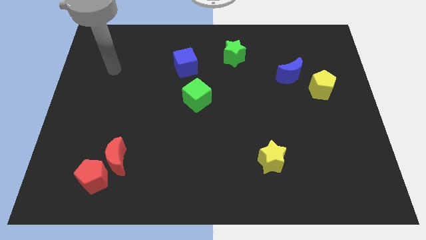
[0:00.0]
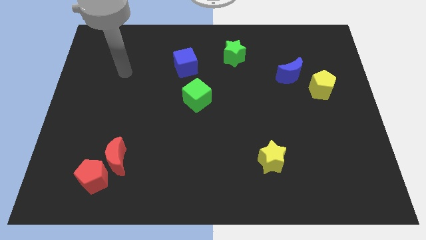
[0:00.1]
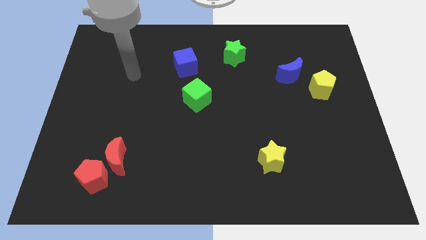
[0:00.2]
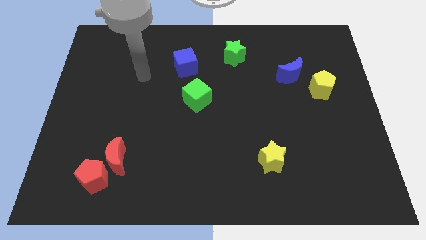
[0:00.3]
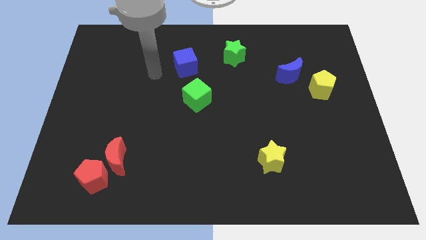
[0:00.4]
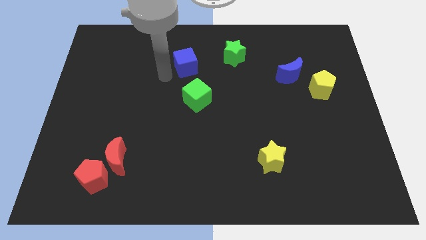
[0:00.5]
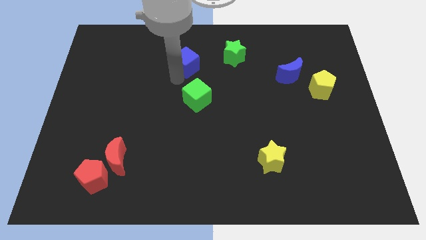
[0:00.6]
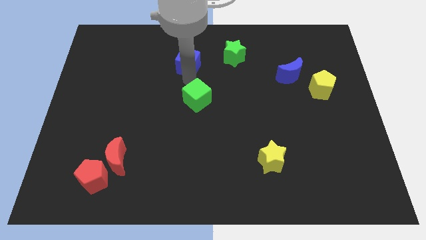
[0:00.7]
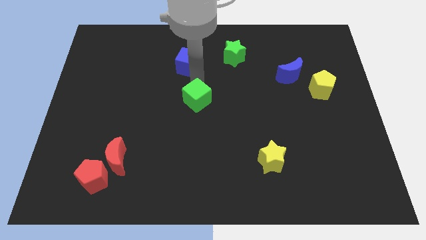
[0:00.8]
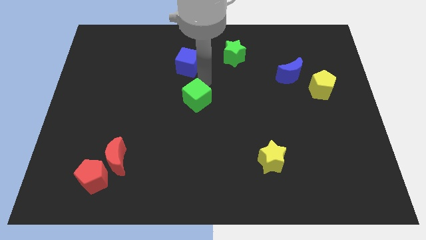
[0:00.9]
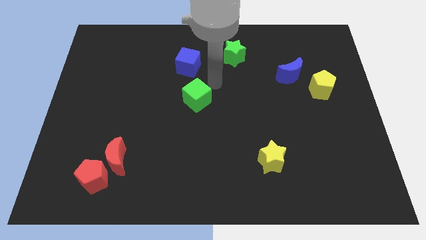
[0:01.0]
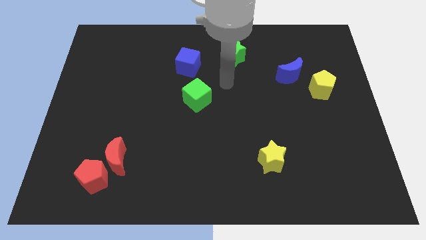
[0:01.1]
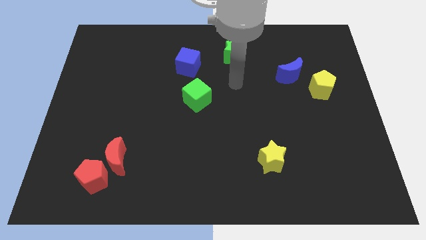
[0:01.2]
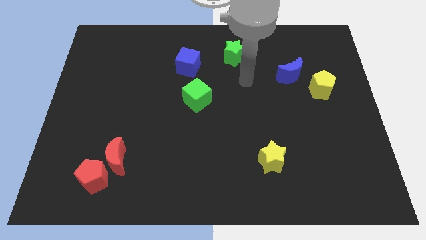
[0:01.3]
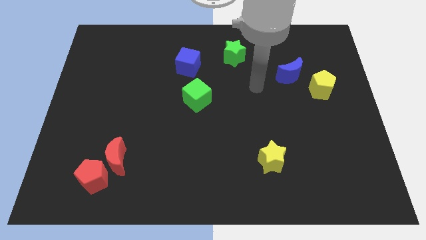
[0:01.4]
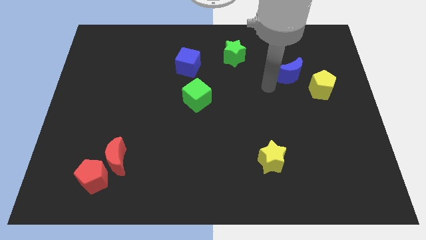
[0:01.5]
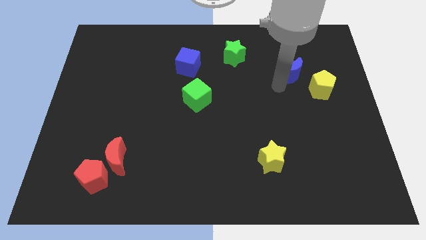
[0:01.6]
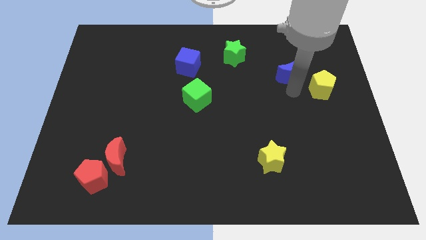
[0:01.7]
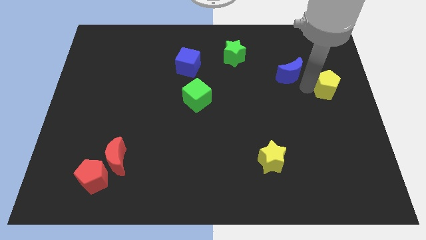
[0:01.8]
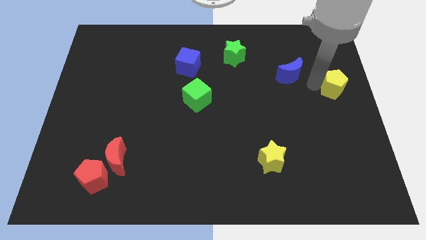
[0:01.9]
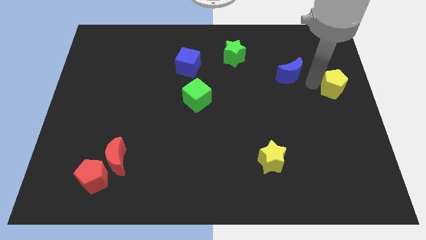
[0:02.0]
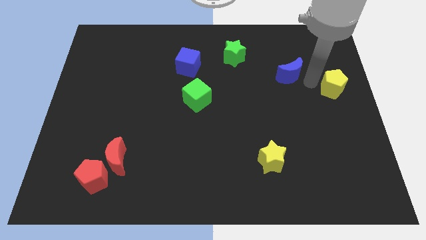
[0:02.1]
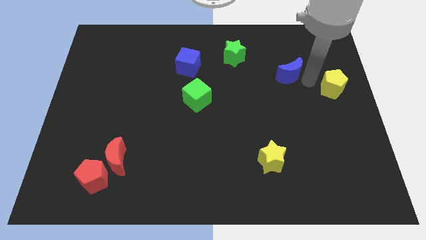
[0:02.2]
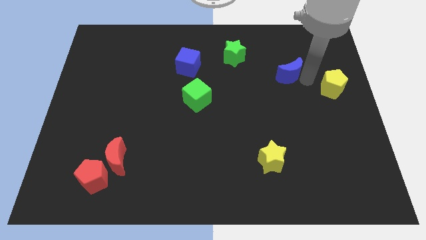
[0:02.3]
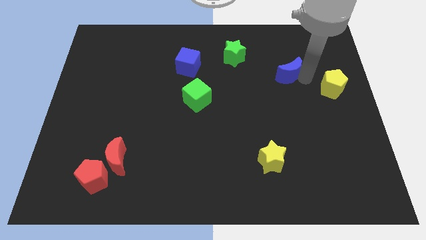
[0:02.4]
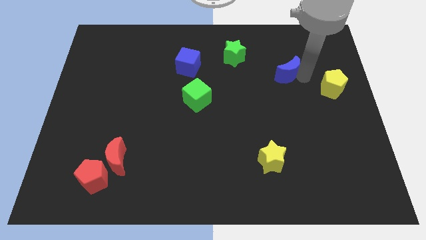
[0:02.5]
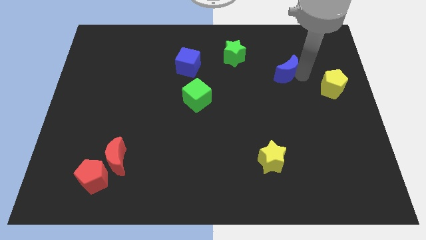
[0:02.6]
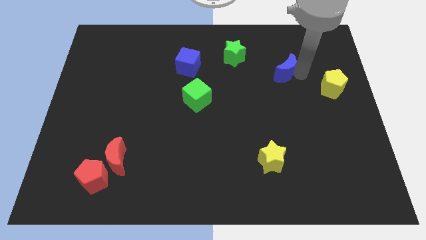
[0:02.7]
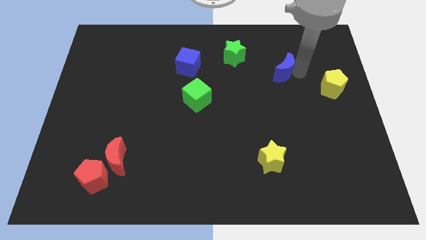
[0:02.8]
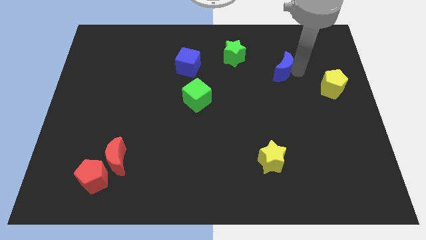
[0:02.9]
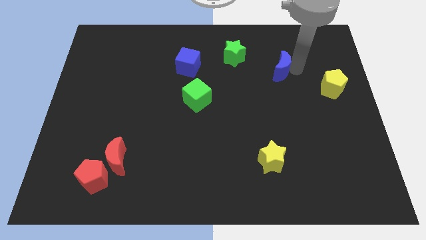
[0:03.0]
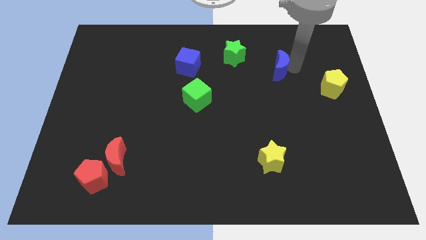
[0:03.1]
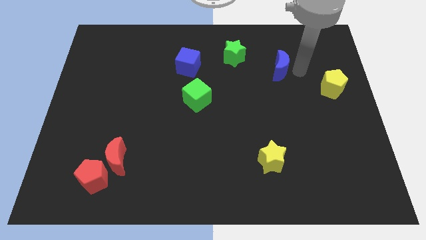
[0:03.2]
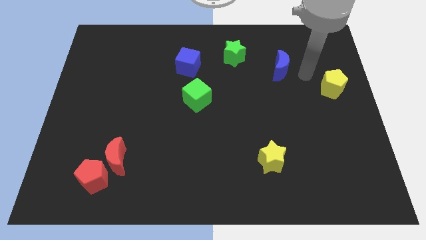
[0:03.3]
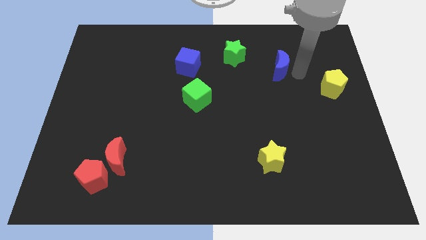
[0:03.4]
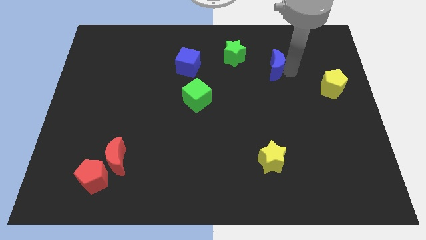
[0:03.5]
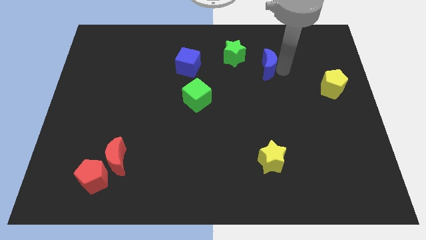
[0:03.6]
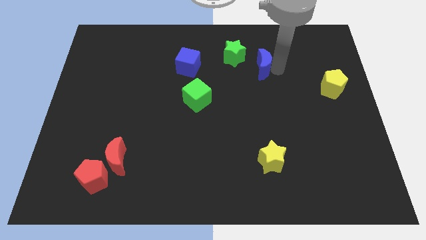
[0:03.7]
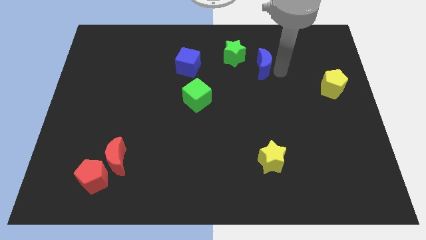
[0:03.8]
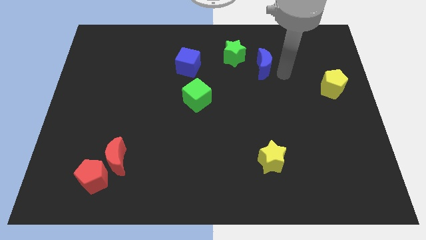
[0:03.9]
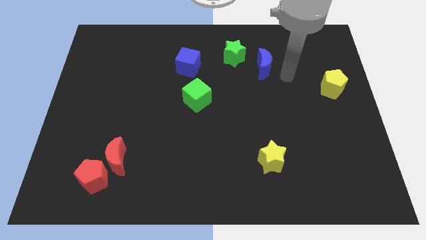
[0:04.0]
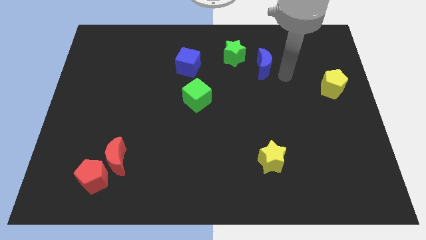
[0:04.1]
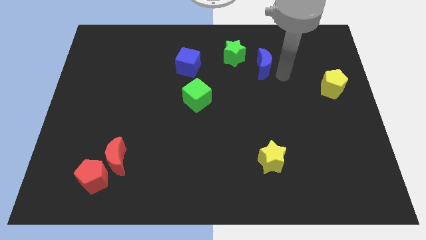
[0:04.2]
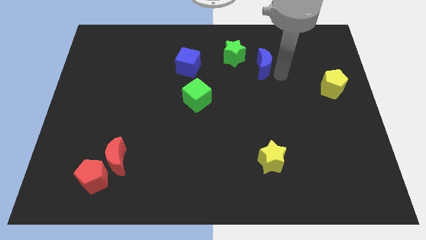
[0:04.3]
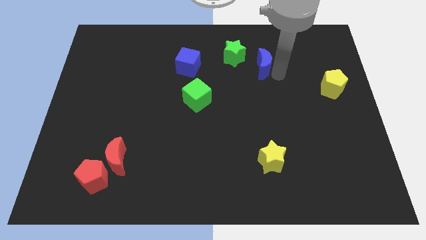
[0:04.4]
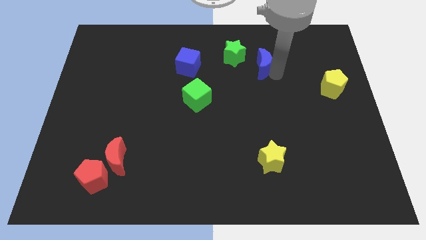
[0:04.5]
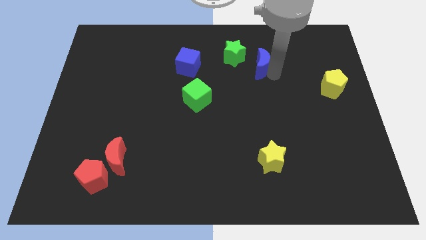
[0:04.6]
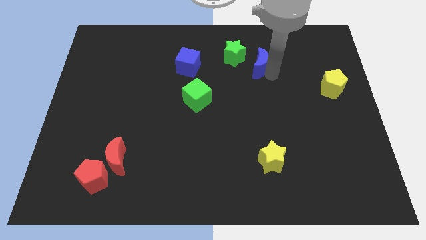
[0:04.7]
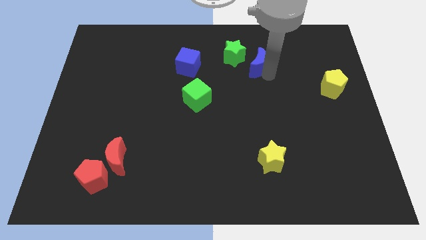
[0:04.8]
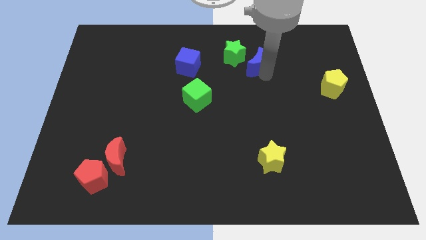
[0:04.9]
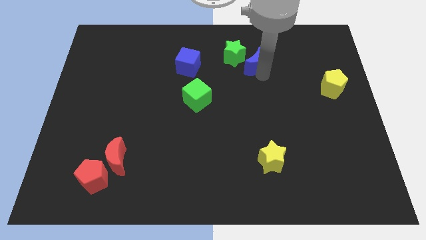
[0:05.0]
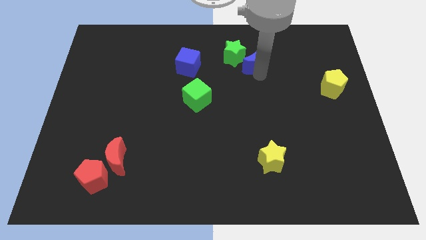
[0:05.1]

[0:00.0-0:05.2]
move the blue moon to the green star
